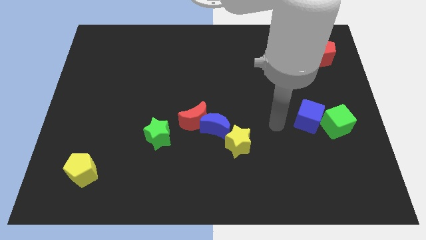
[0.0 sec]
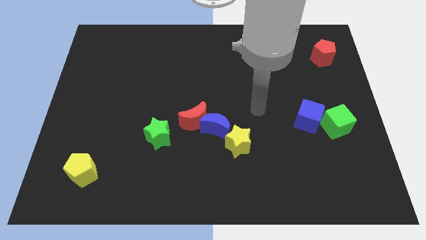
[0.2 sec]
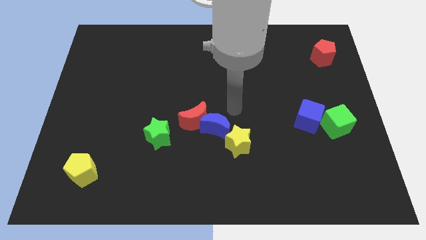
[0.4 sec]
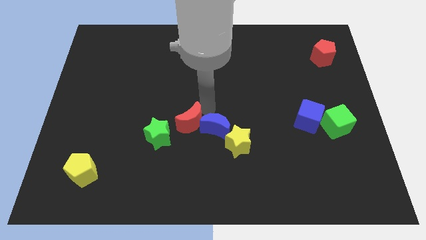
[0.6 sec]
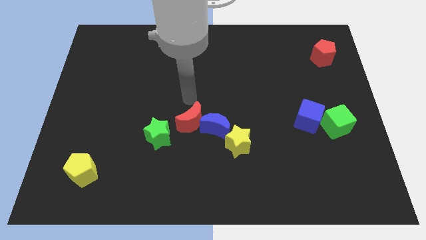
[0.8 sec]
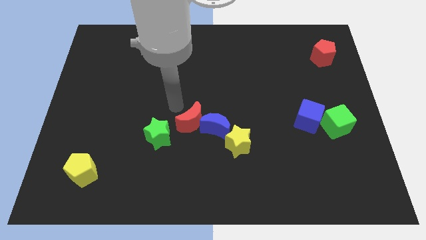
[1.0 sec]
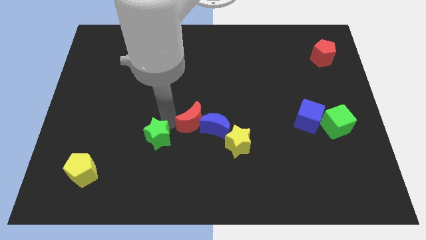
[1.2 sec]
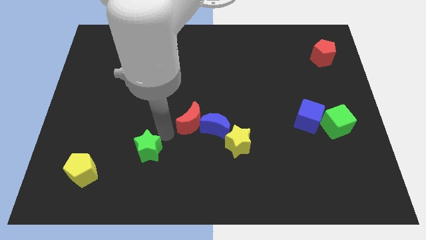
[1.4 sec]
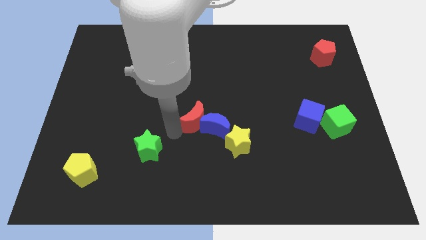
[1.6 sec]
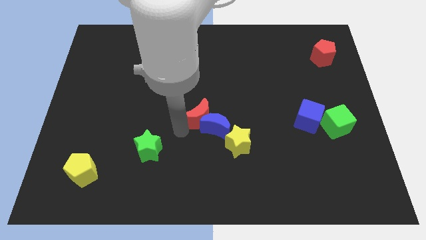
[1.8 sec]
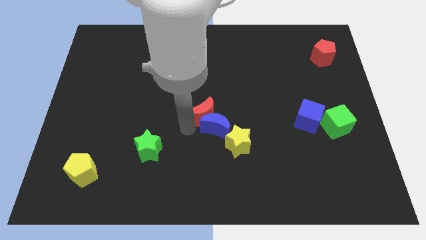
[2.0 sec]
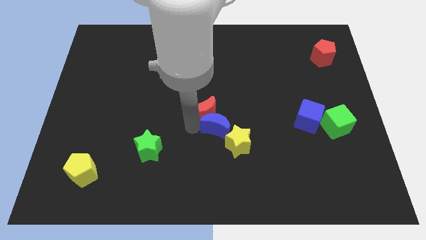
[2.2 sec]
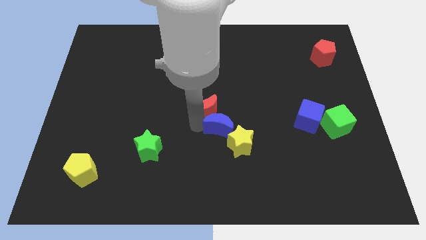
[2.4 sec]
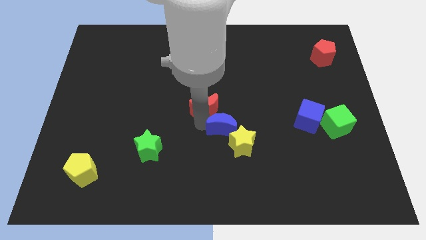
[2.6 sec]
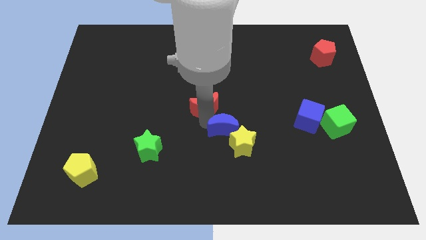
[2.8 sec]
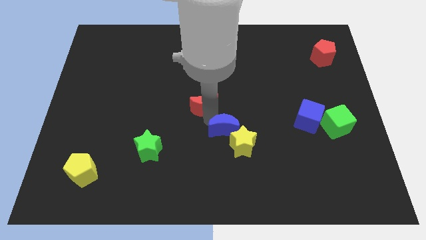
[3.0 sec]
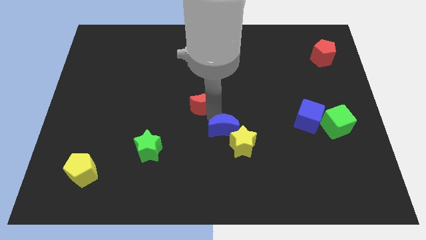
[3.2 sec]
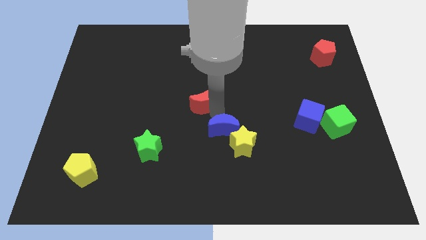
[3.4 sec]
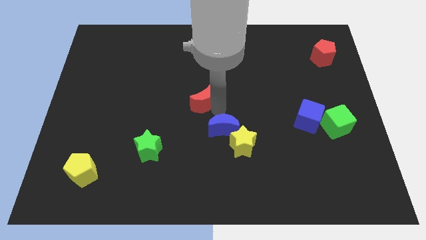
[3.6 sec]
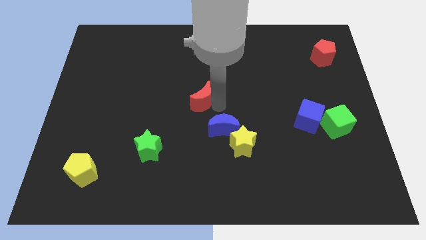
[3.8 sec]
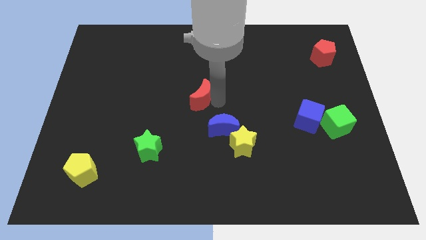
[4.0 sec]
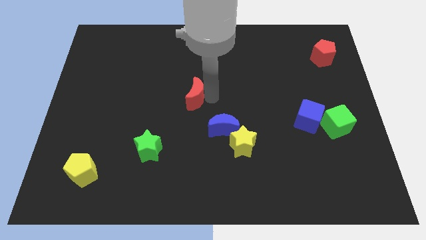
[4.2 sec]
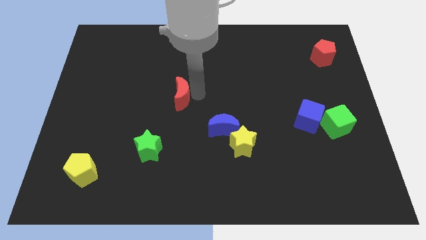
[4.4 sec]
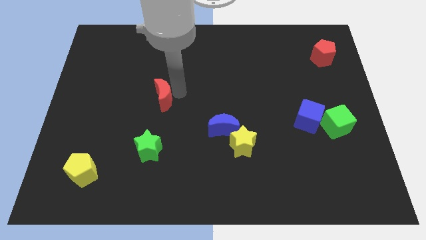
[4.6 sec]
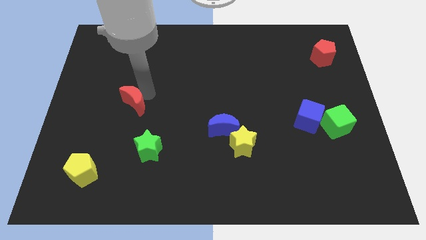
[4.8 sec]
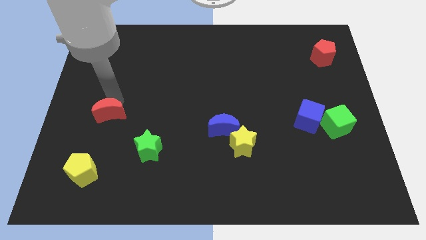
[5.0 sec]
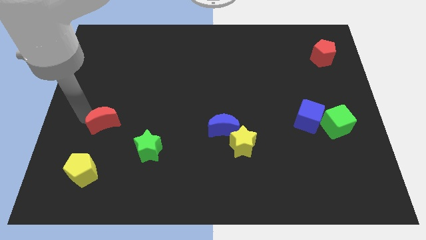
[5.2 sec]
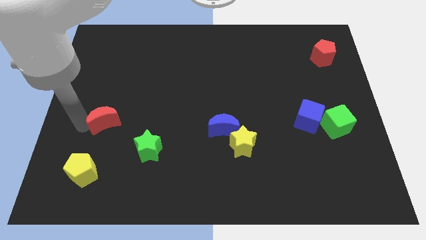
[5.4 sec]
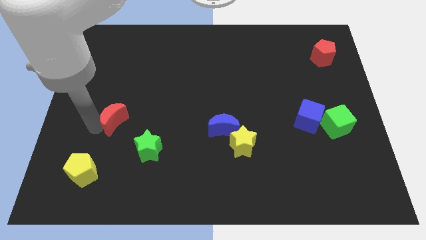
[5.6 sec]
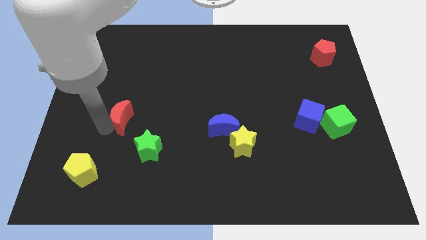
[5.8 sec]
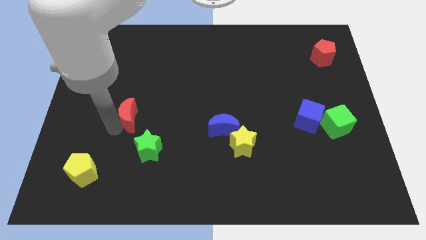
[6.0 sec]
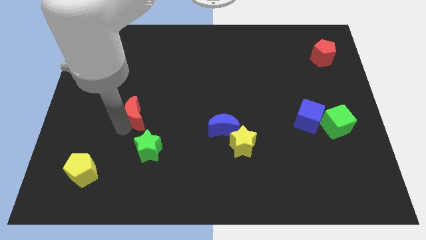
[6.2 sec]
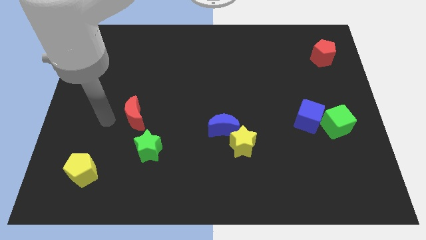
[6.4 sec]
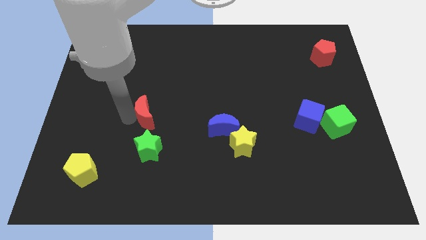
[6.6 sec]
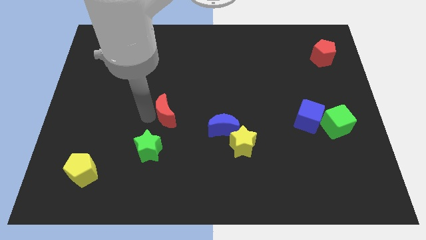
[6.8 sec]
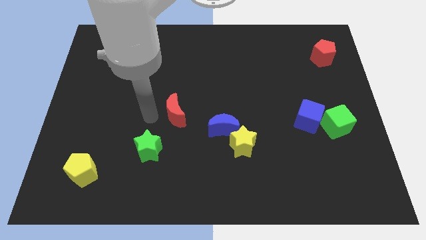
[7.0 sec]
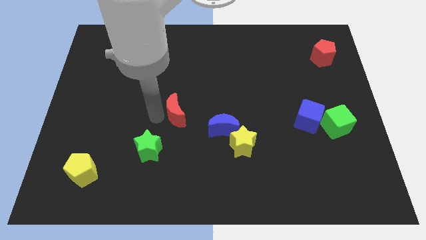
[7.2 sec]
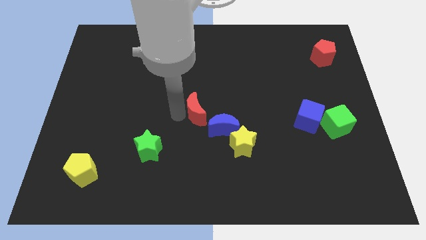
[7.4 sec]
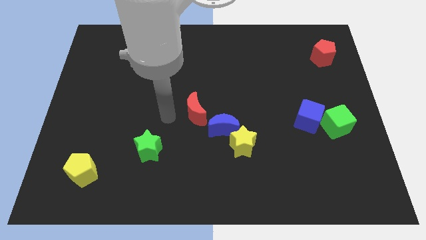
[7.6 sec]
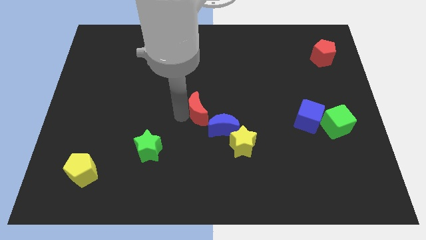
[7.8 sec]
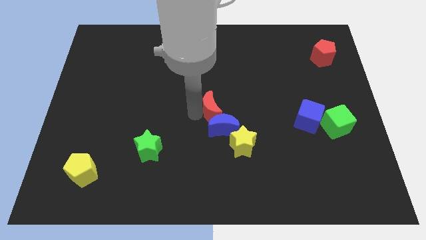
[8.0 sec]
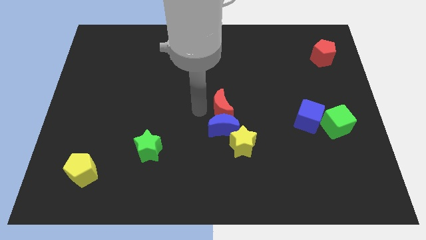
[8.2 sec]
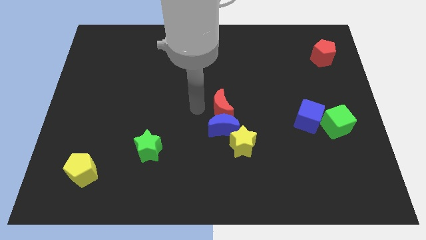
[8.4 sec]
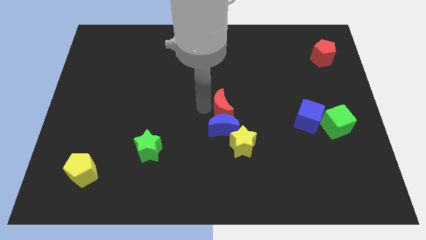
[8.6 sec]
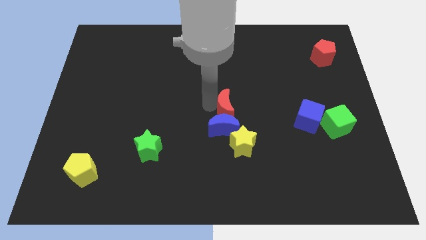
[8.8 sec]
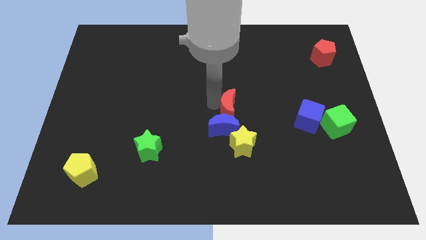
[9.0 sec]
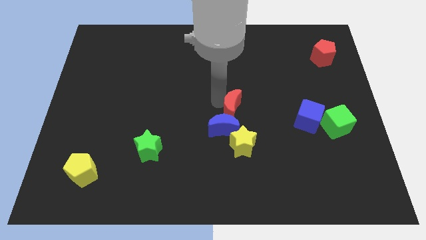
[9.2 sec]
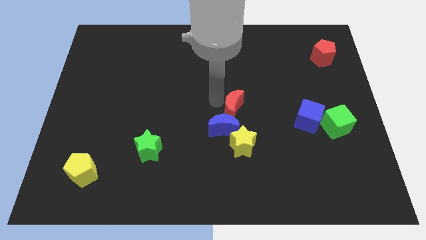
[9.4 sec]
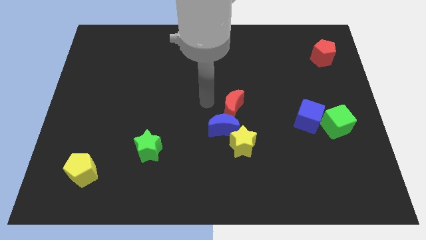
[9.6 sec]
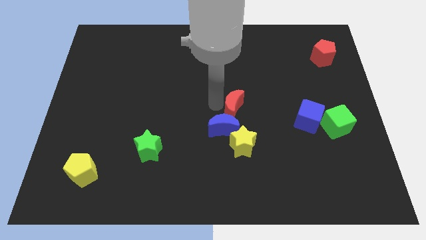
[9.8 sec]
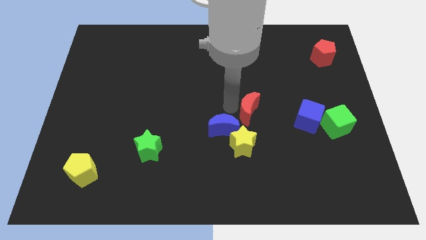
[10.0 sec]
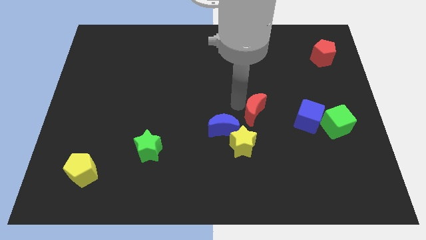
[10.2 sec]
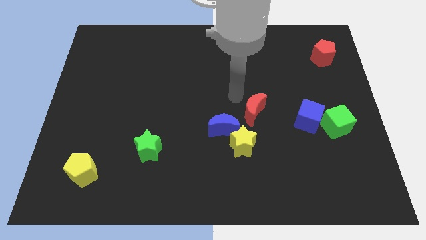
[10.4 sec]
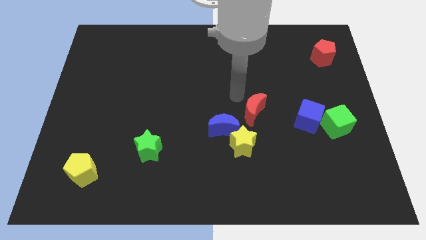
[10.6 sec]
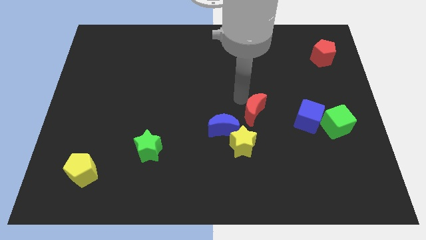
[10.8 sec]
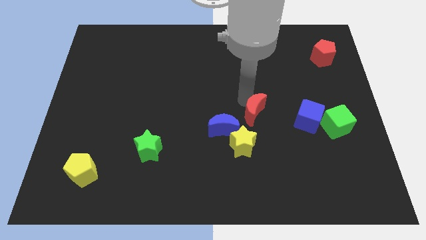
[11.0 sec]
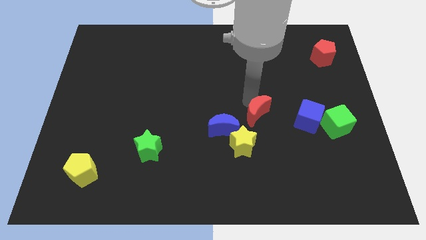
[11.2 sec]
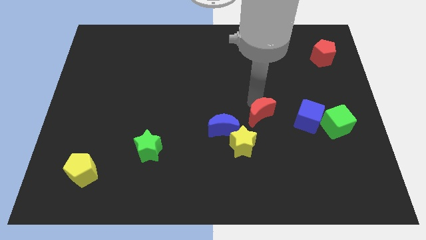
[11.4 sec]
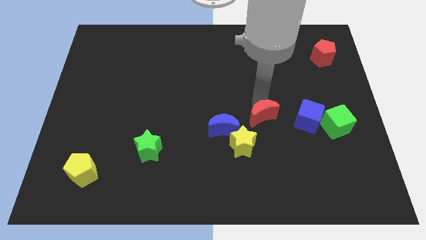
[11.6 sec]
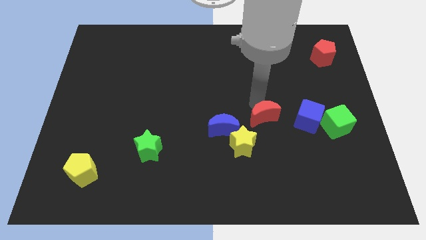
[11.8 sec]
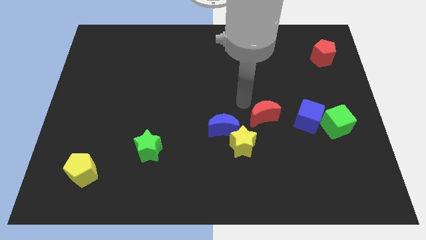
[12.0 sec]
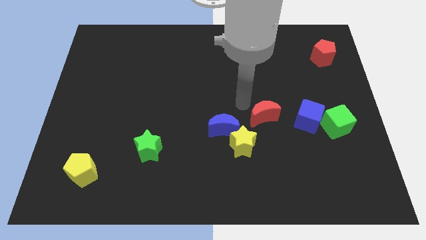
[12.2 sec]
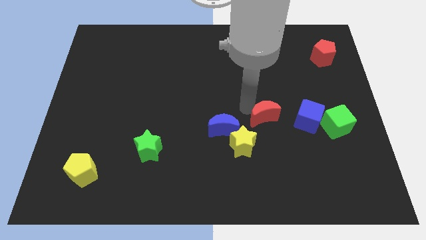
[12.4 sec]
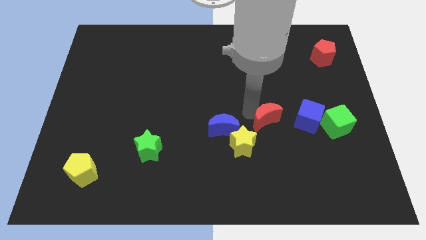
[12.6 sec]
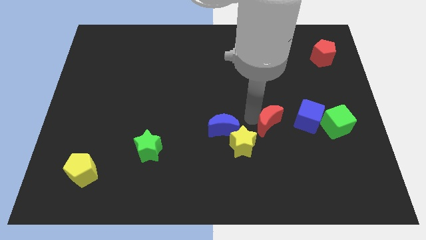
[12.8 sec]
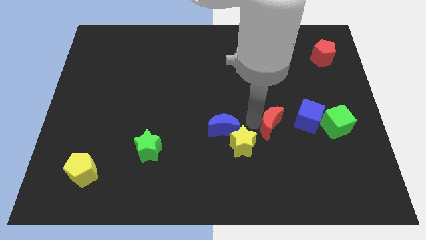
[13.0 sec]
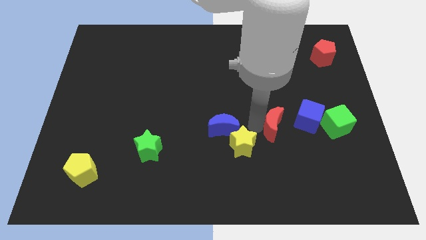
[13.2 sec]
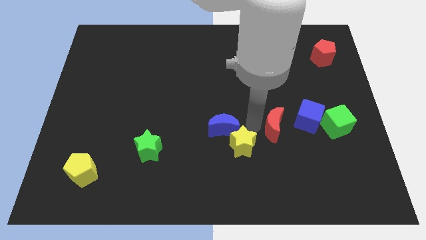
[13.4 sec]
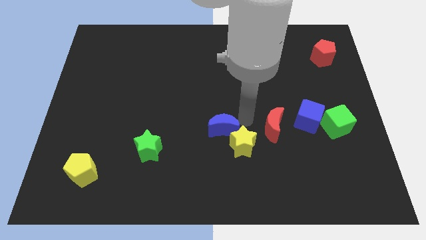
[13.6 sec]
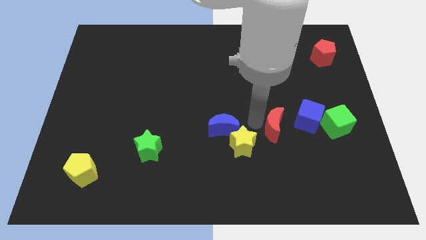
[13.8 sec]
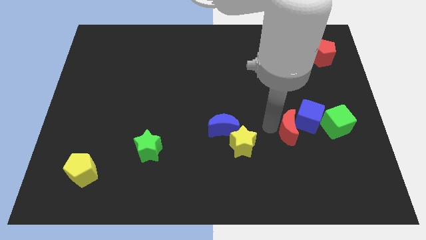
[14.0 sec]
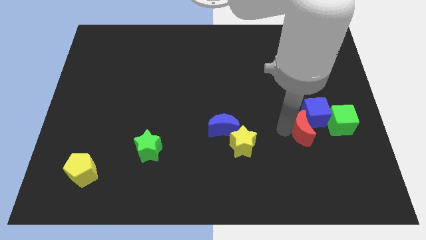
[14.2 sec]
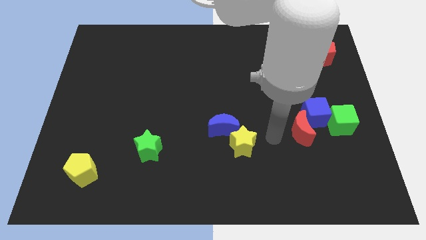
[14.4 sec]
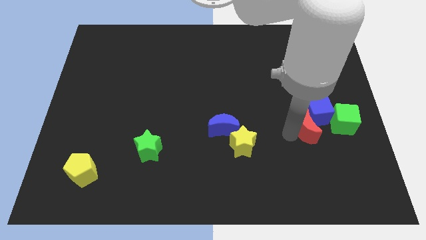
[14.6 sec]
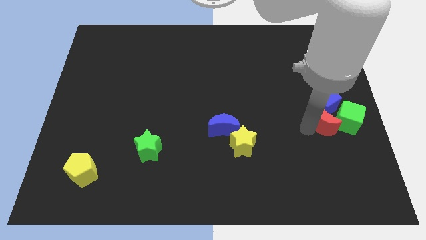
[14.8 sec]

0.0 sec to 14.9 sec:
slide the red moon close to the green cube
